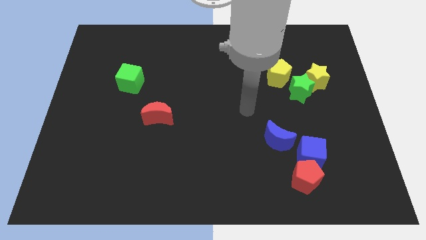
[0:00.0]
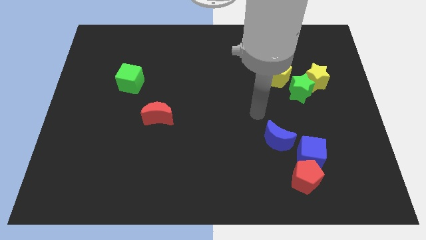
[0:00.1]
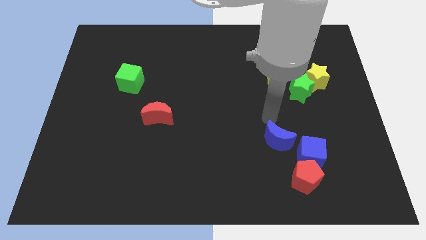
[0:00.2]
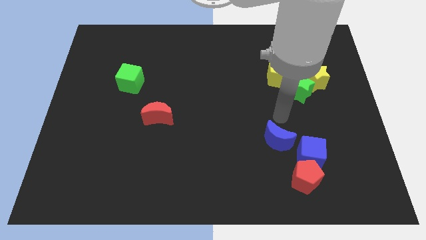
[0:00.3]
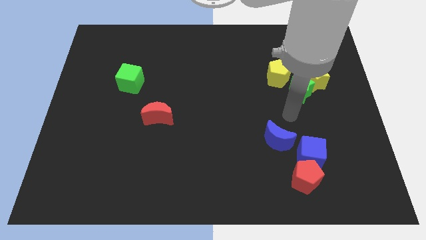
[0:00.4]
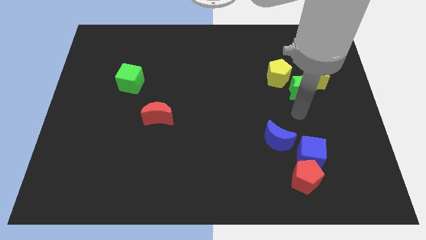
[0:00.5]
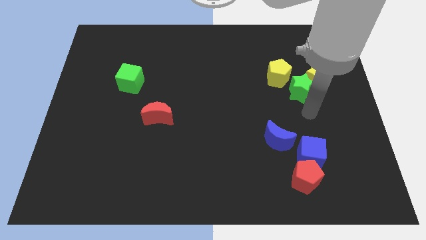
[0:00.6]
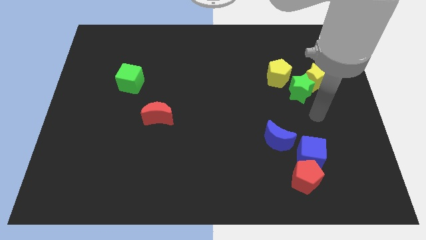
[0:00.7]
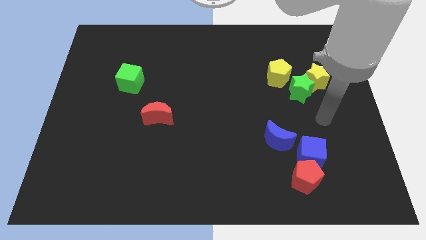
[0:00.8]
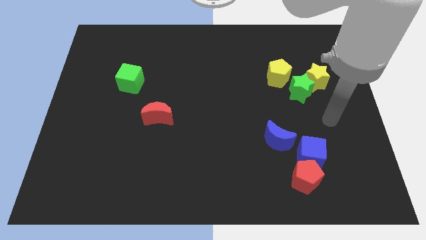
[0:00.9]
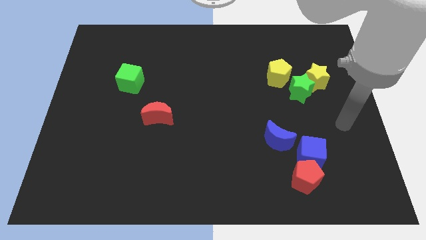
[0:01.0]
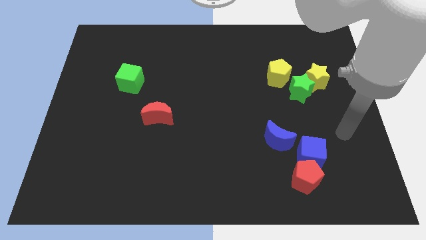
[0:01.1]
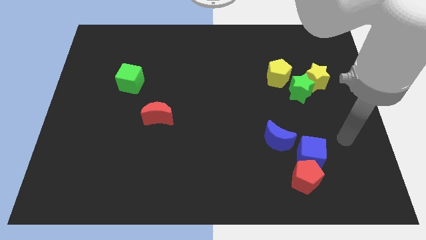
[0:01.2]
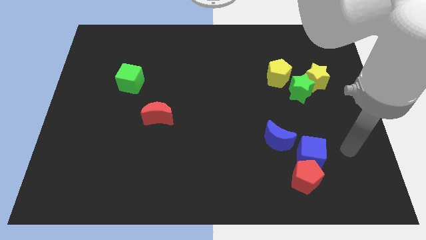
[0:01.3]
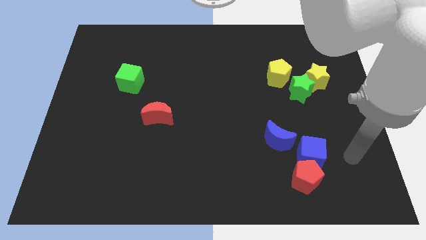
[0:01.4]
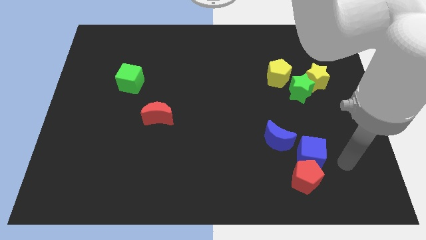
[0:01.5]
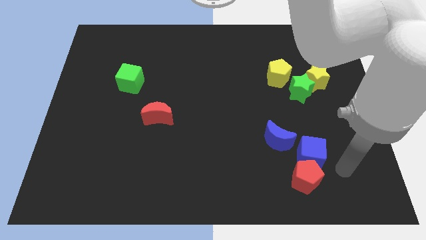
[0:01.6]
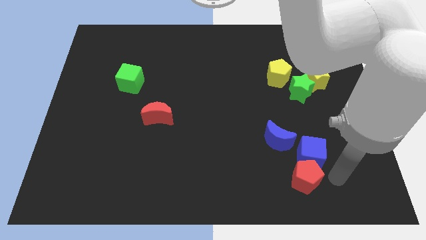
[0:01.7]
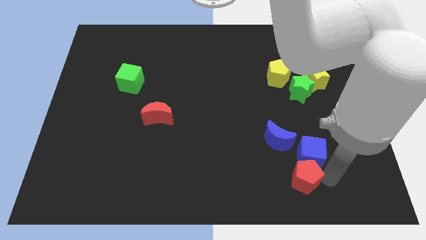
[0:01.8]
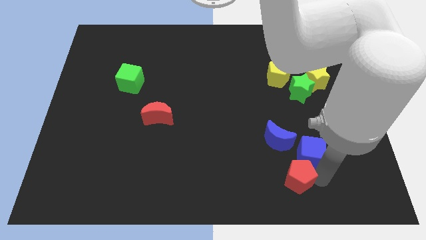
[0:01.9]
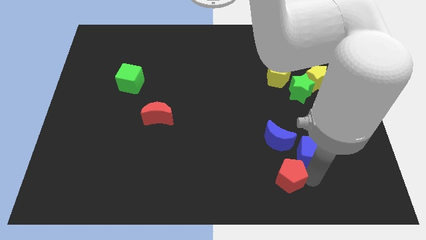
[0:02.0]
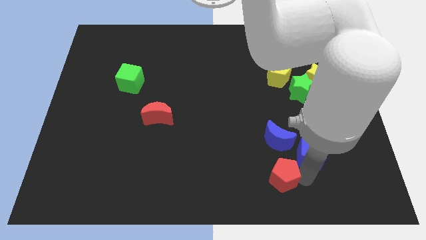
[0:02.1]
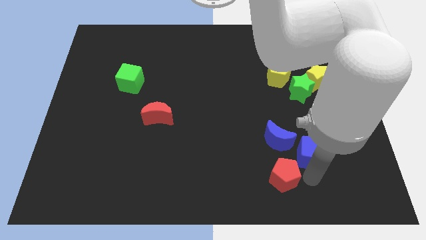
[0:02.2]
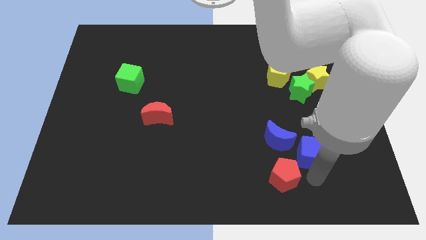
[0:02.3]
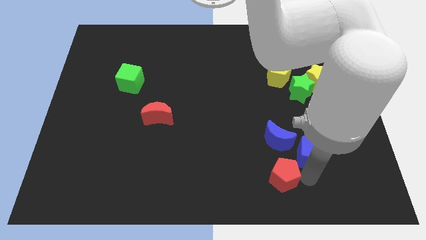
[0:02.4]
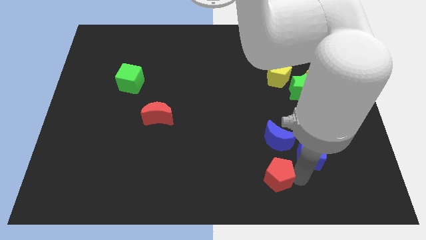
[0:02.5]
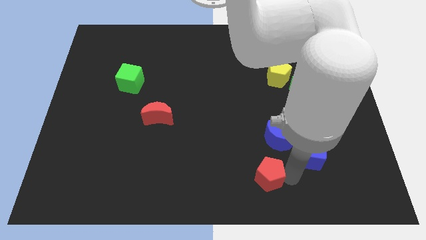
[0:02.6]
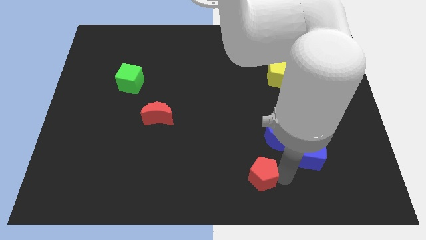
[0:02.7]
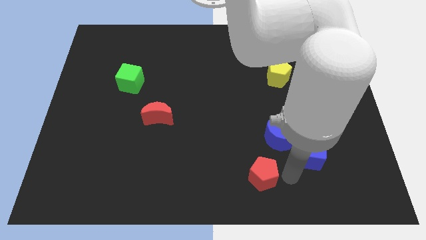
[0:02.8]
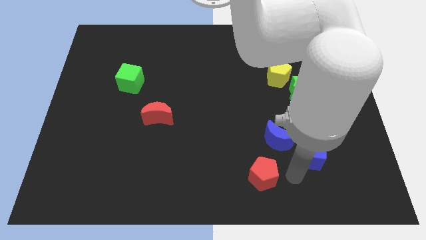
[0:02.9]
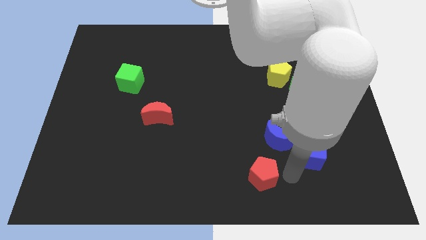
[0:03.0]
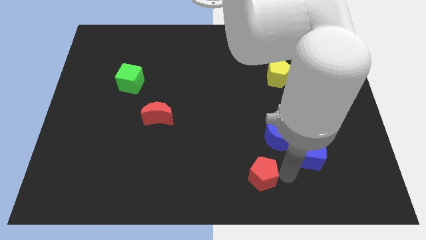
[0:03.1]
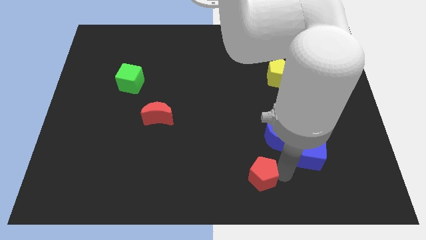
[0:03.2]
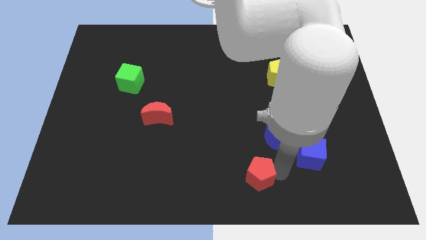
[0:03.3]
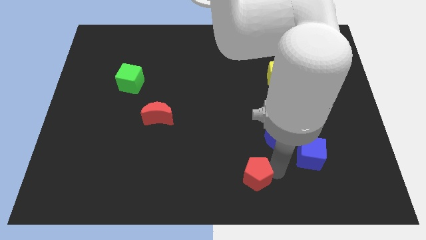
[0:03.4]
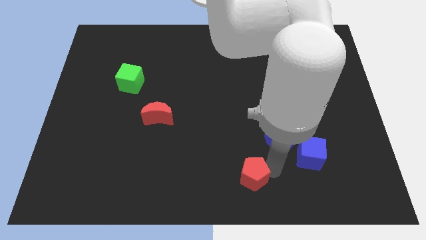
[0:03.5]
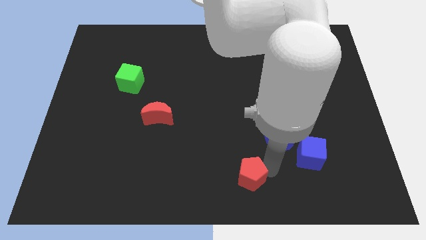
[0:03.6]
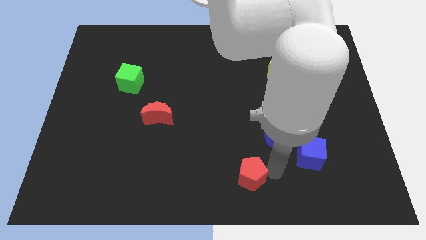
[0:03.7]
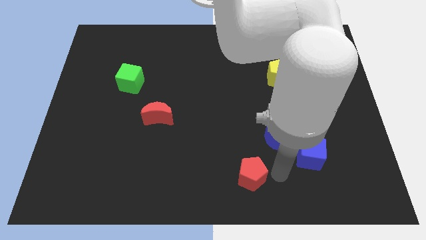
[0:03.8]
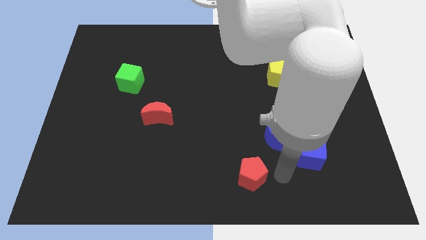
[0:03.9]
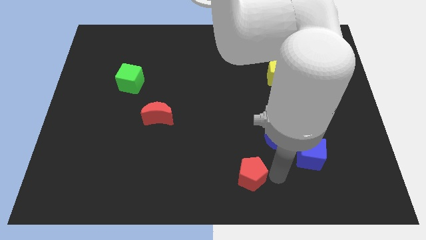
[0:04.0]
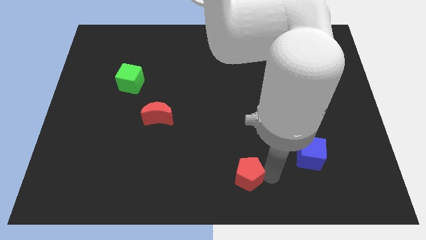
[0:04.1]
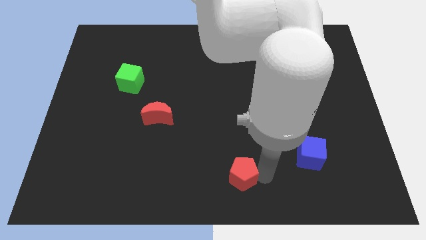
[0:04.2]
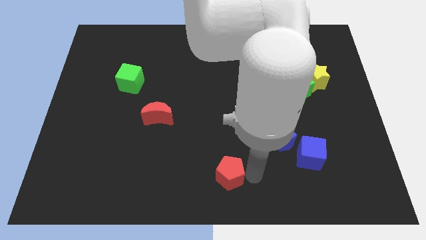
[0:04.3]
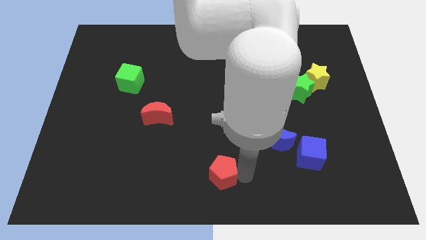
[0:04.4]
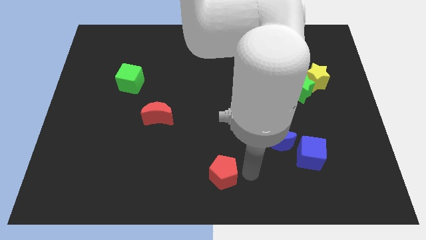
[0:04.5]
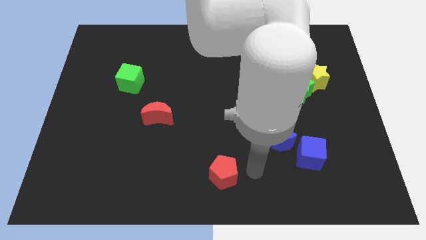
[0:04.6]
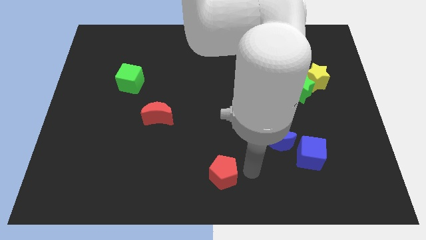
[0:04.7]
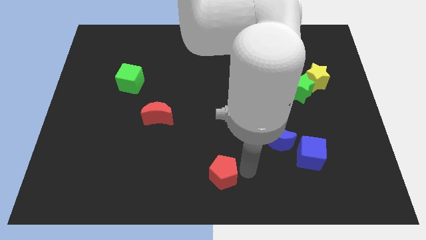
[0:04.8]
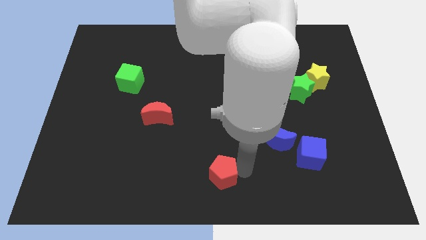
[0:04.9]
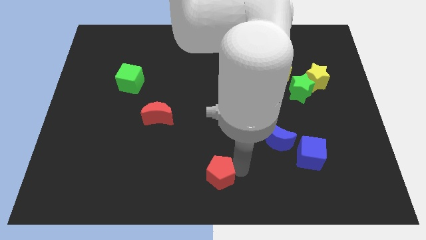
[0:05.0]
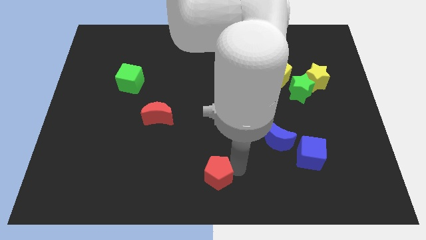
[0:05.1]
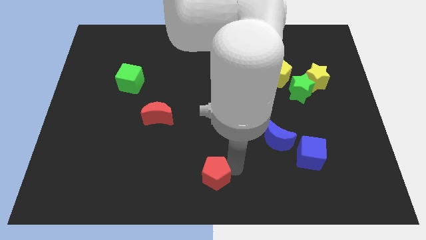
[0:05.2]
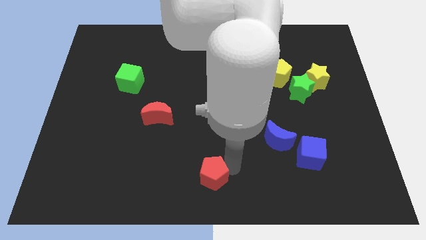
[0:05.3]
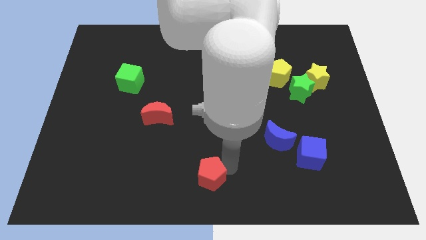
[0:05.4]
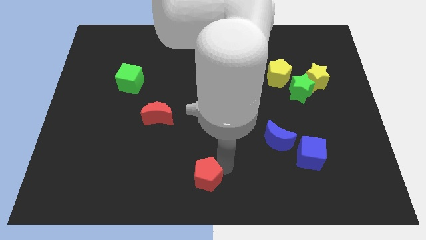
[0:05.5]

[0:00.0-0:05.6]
slide the red pentagon to the left

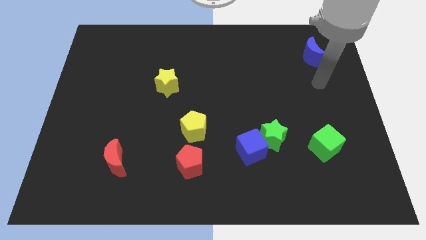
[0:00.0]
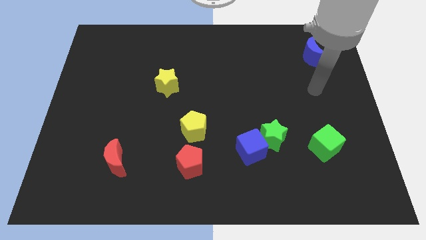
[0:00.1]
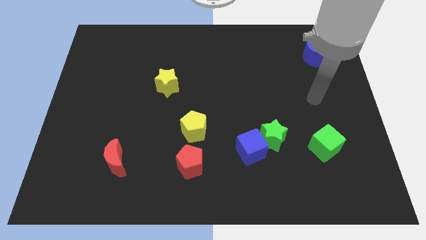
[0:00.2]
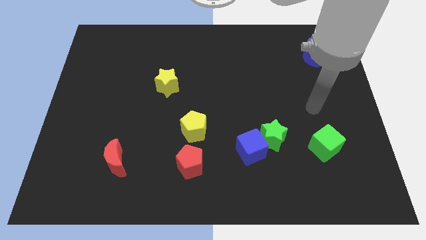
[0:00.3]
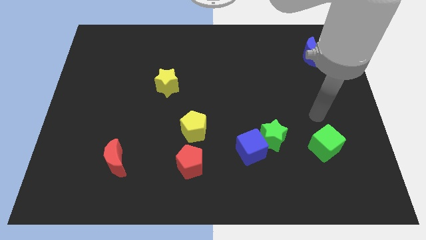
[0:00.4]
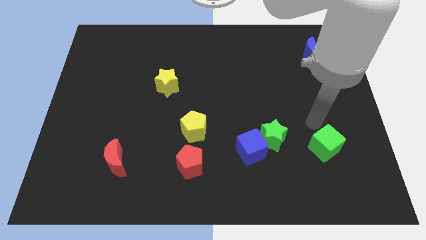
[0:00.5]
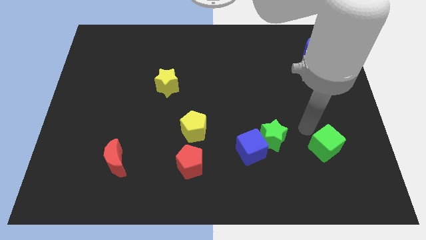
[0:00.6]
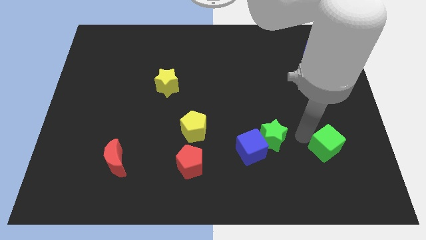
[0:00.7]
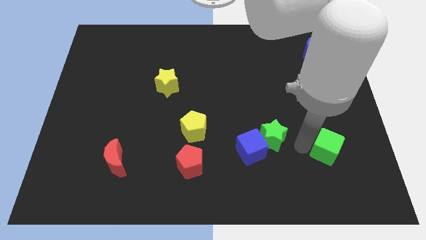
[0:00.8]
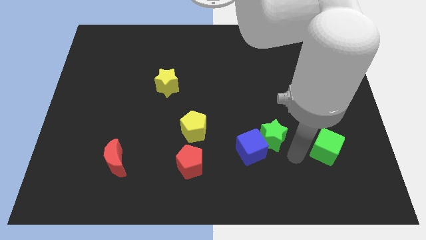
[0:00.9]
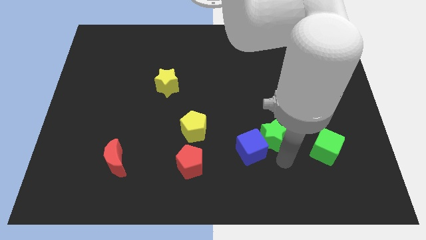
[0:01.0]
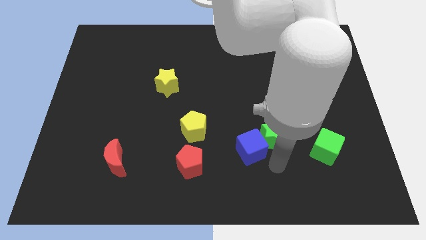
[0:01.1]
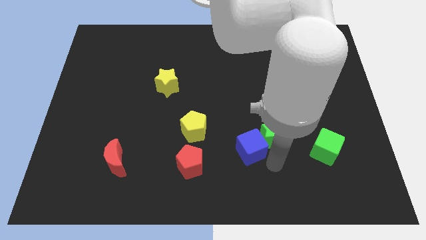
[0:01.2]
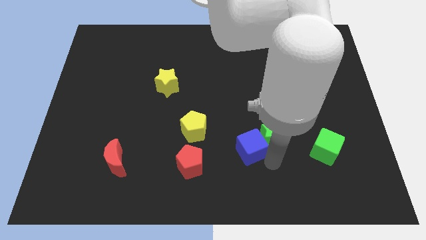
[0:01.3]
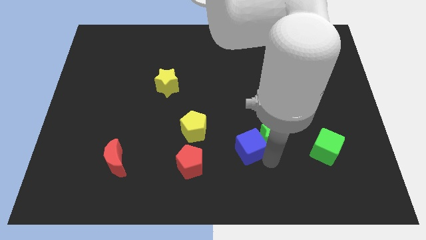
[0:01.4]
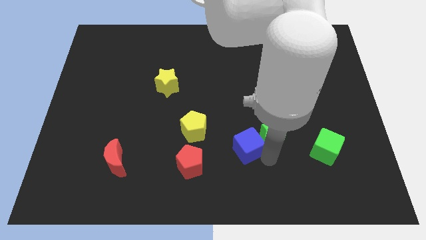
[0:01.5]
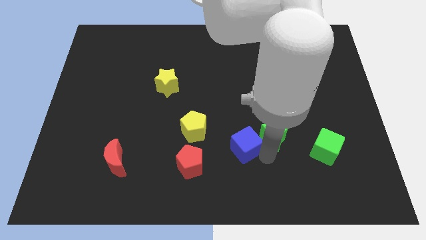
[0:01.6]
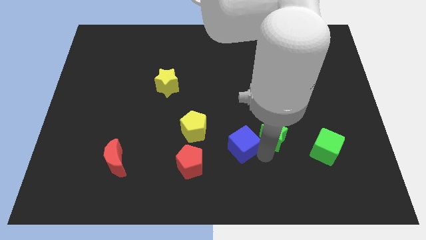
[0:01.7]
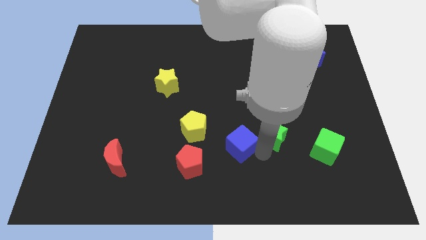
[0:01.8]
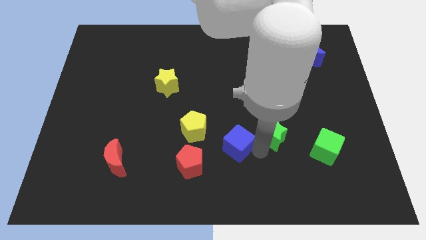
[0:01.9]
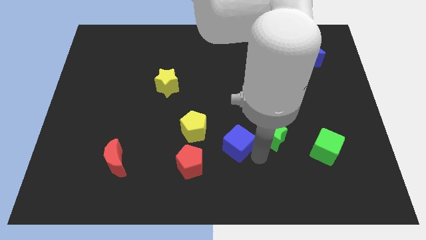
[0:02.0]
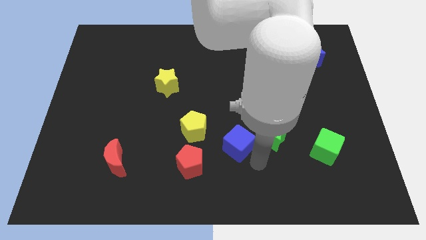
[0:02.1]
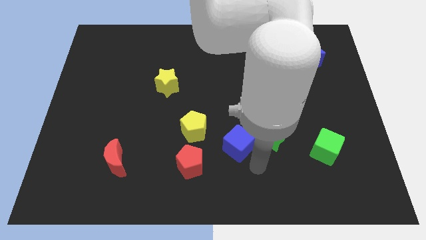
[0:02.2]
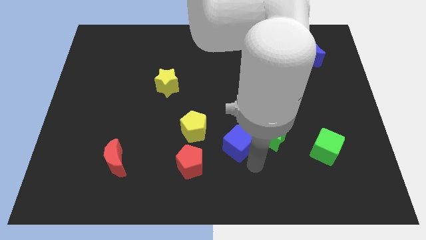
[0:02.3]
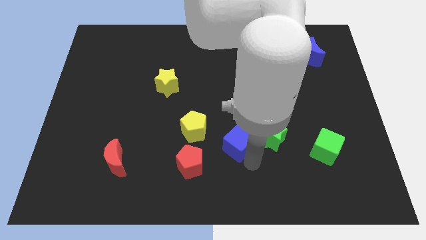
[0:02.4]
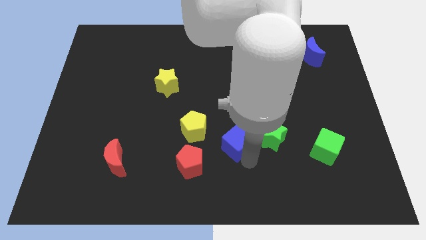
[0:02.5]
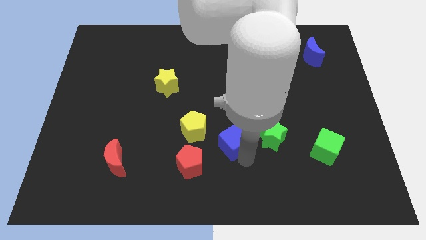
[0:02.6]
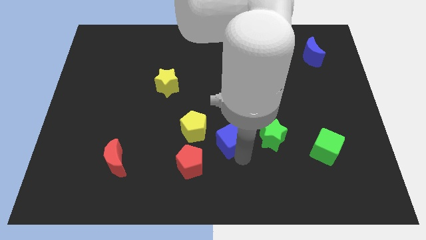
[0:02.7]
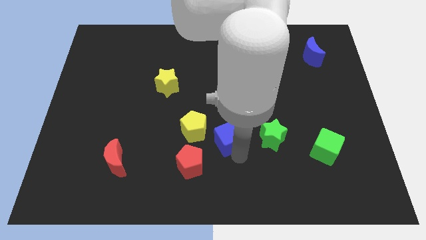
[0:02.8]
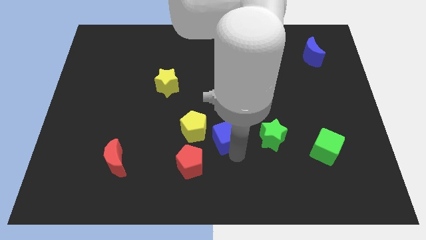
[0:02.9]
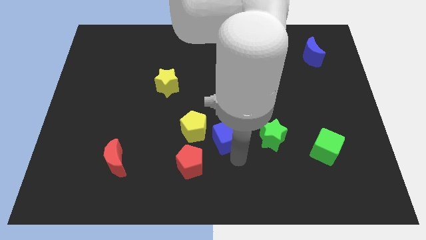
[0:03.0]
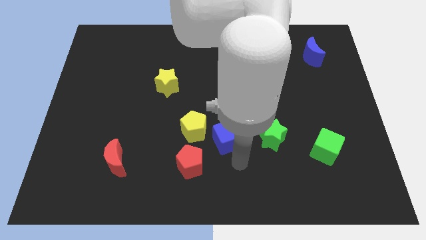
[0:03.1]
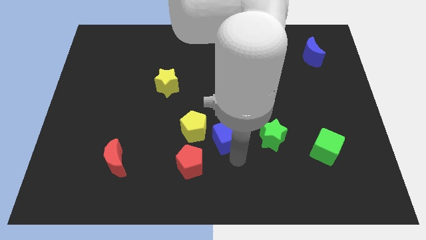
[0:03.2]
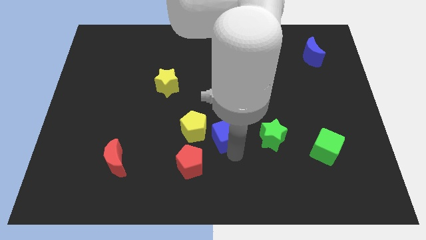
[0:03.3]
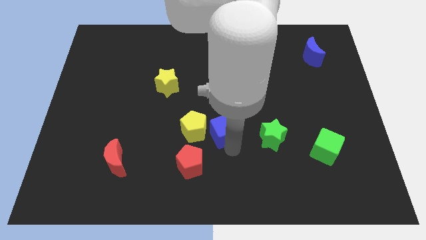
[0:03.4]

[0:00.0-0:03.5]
push the blue cube up and left a bit
